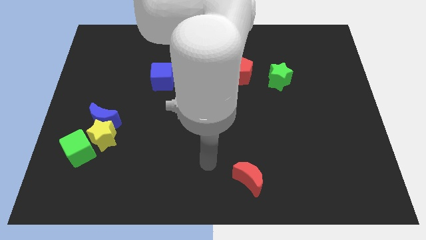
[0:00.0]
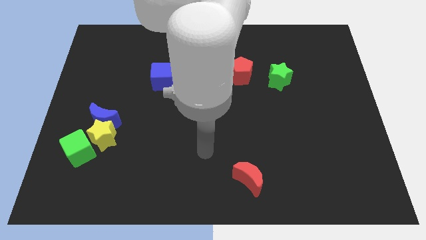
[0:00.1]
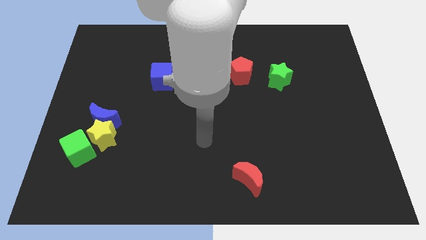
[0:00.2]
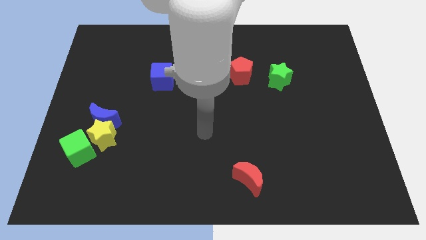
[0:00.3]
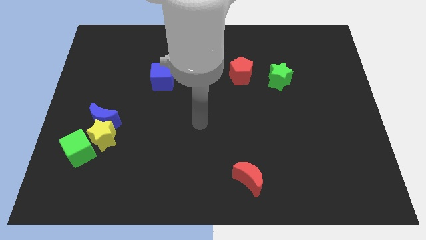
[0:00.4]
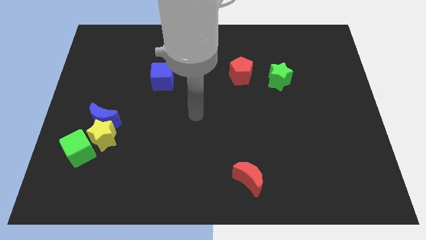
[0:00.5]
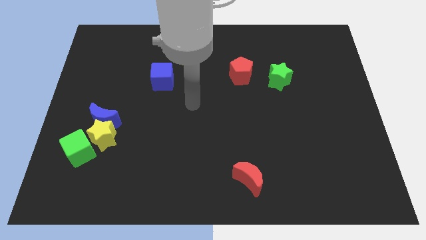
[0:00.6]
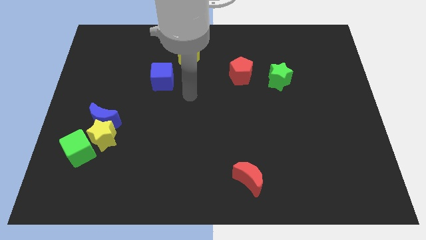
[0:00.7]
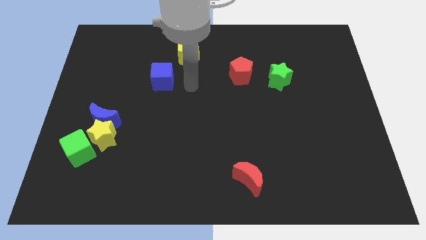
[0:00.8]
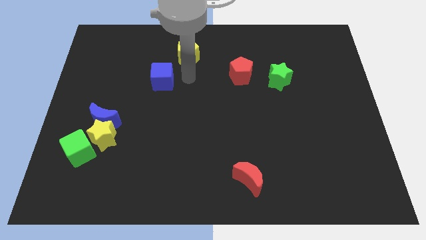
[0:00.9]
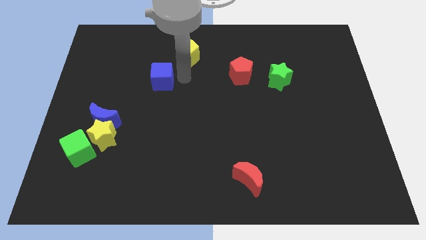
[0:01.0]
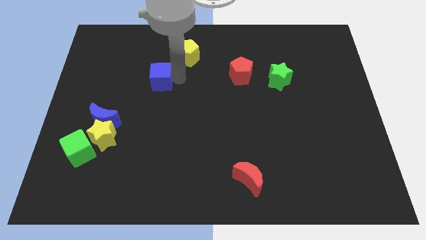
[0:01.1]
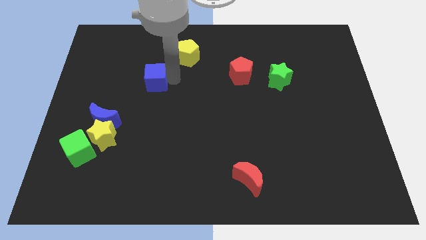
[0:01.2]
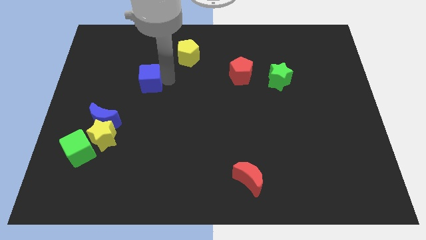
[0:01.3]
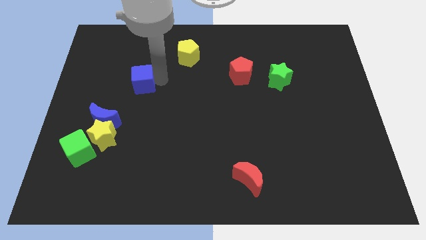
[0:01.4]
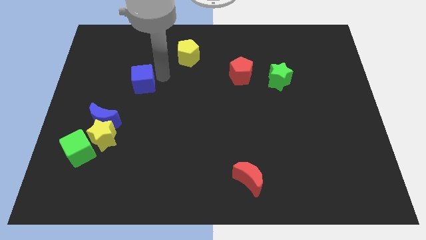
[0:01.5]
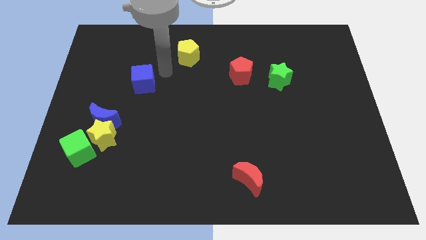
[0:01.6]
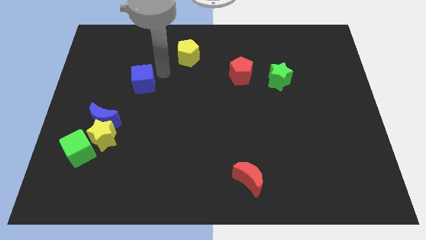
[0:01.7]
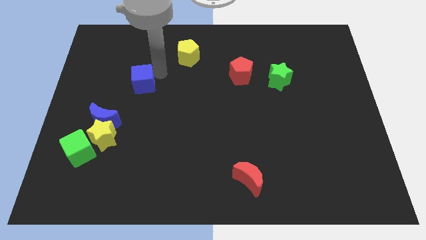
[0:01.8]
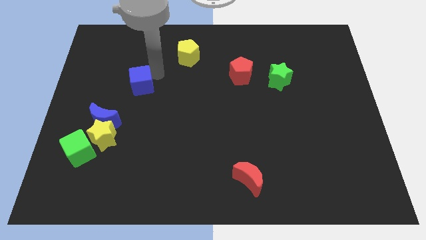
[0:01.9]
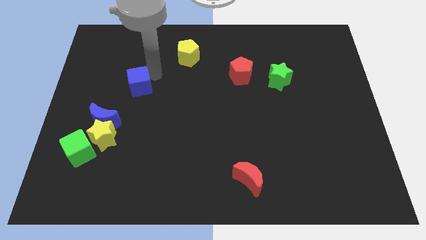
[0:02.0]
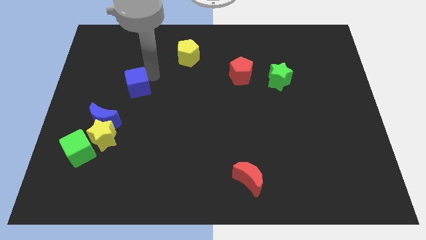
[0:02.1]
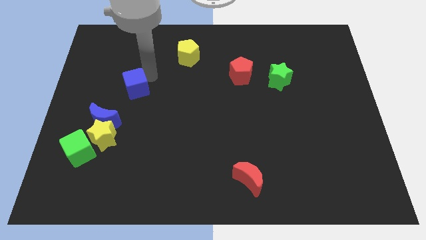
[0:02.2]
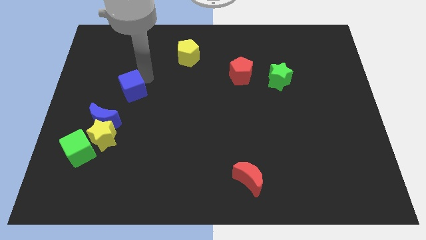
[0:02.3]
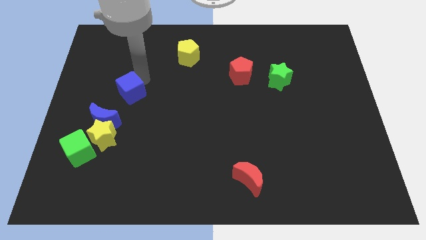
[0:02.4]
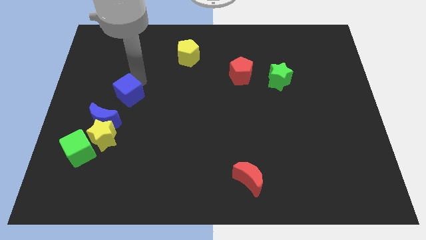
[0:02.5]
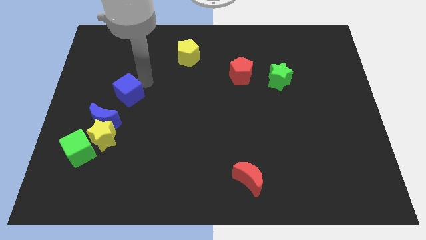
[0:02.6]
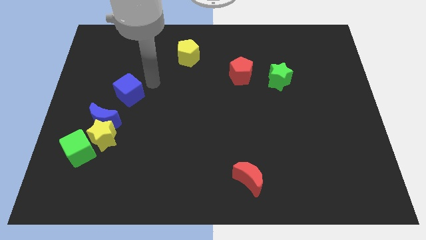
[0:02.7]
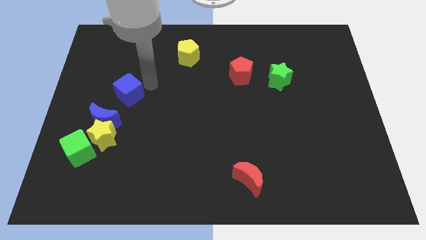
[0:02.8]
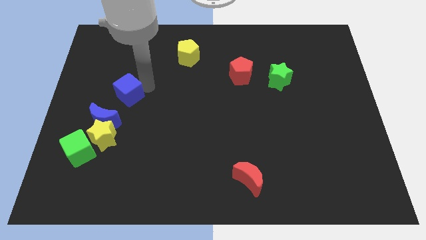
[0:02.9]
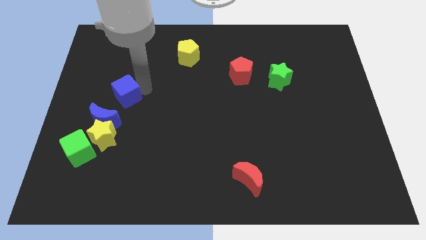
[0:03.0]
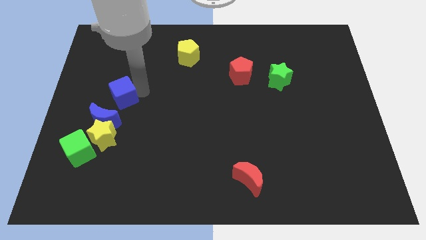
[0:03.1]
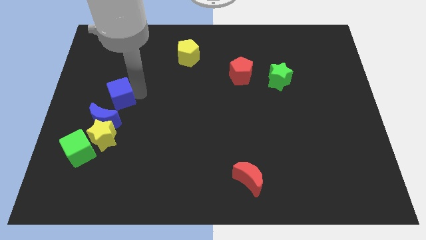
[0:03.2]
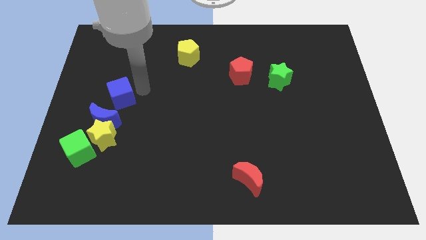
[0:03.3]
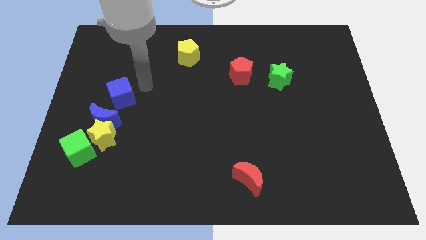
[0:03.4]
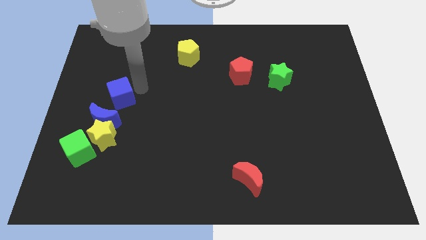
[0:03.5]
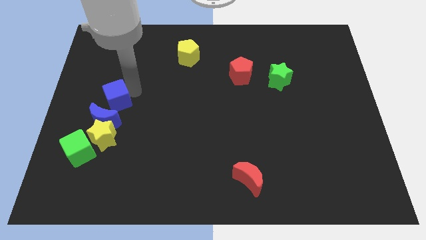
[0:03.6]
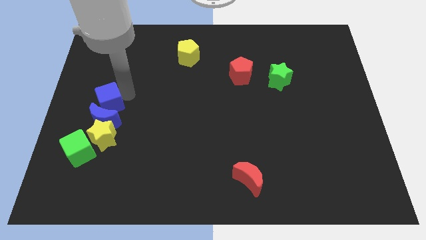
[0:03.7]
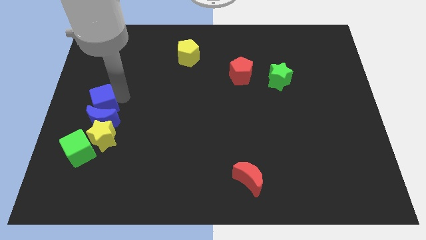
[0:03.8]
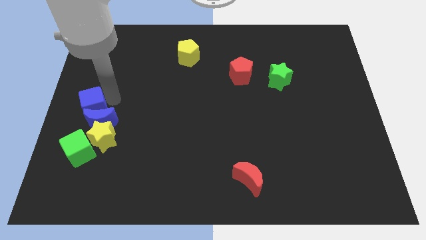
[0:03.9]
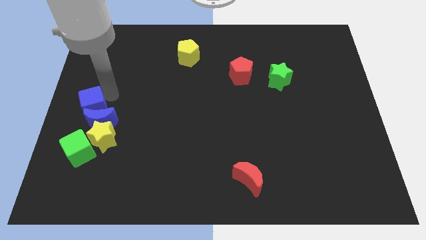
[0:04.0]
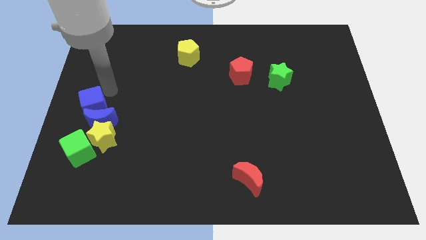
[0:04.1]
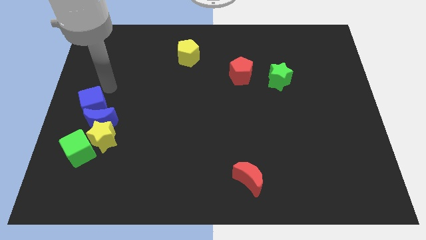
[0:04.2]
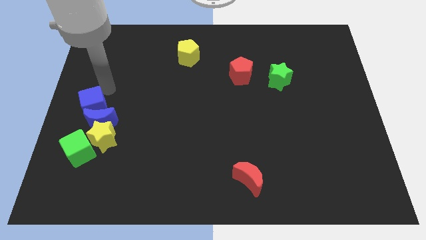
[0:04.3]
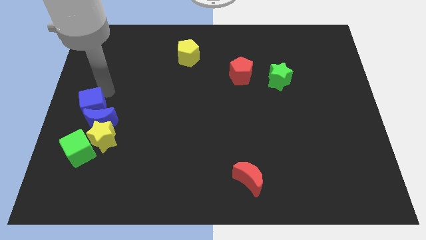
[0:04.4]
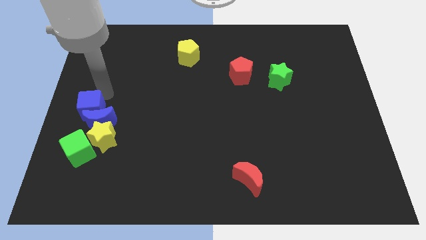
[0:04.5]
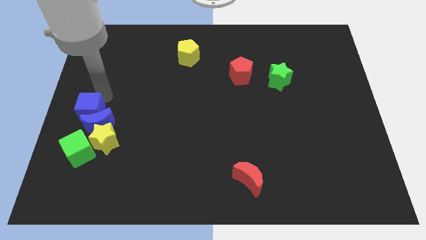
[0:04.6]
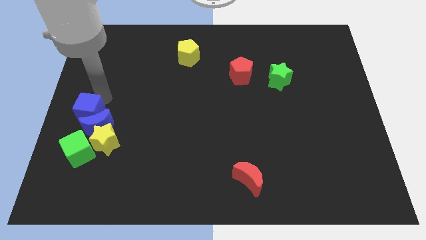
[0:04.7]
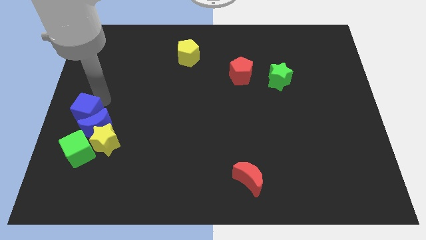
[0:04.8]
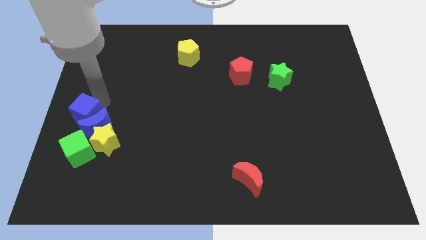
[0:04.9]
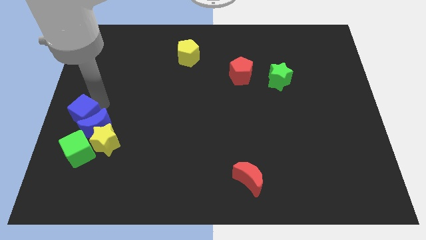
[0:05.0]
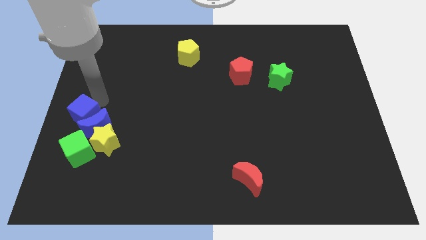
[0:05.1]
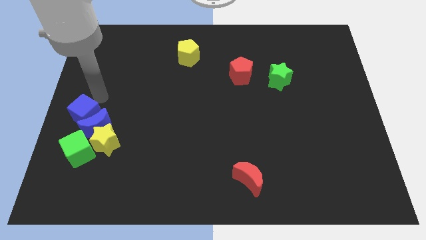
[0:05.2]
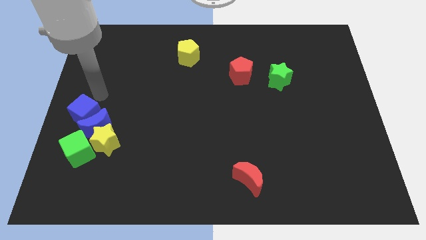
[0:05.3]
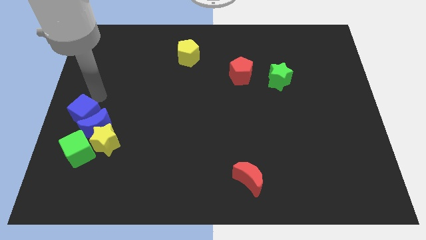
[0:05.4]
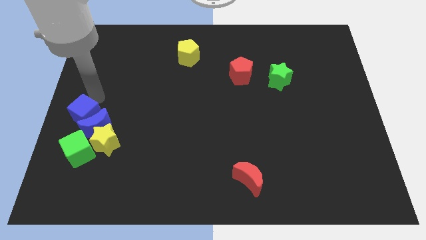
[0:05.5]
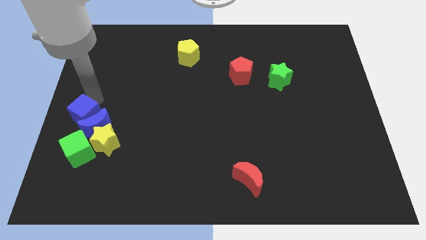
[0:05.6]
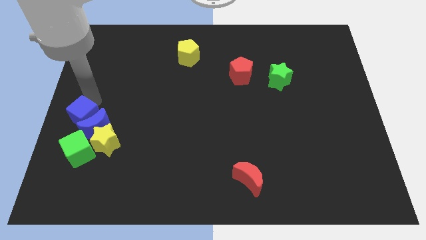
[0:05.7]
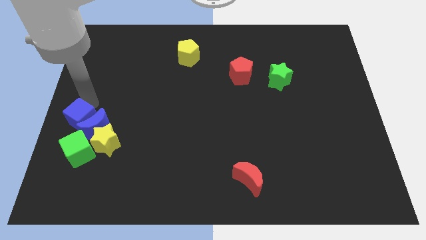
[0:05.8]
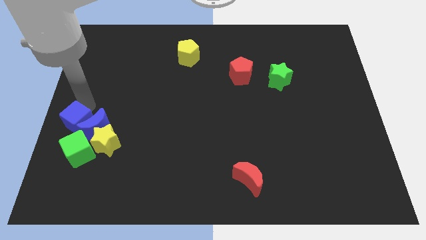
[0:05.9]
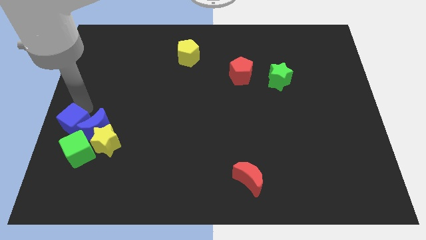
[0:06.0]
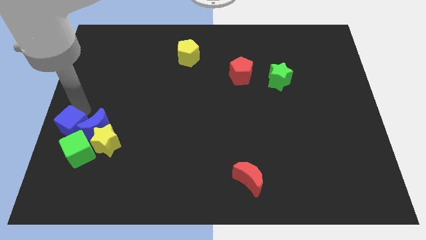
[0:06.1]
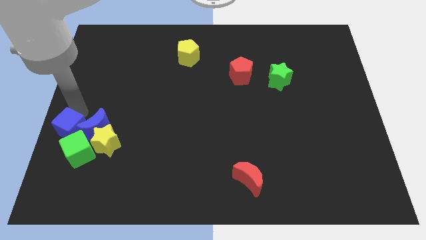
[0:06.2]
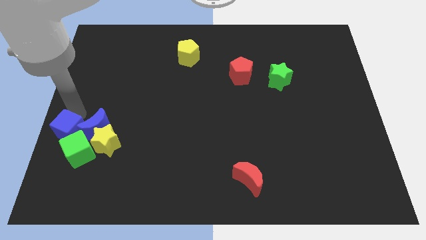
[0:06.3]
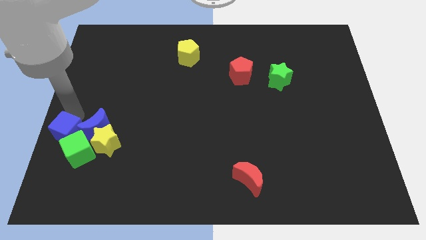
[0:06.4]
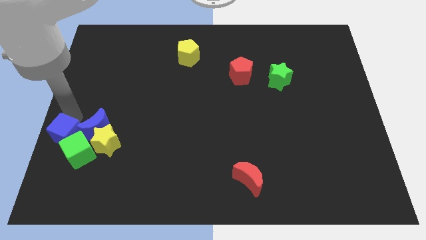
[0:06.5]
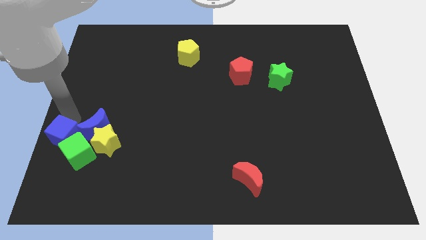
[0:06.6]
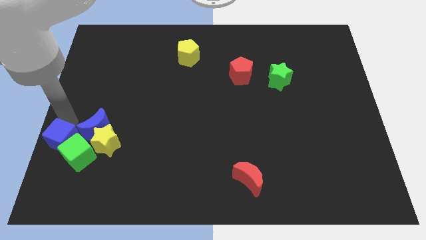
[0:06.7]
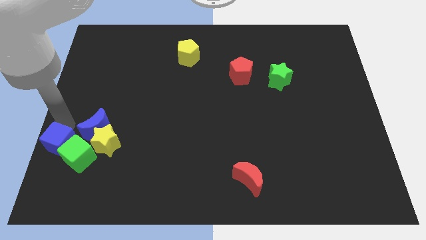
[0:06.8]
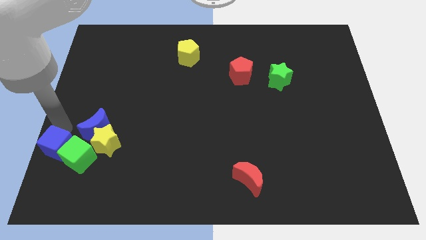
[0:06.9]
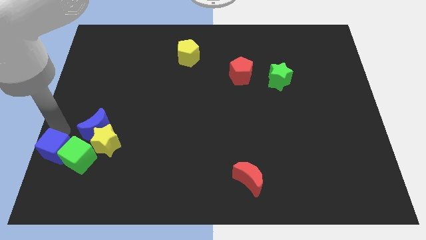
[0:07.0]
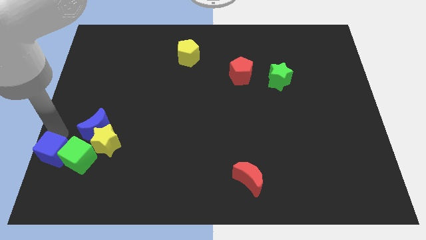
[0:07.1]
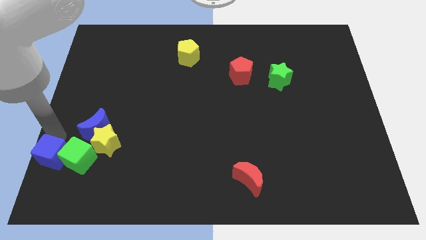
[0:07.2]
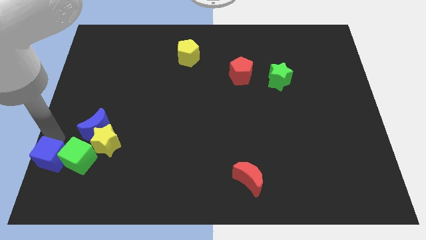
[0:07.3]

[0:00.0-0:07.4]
slide the blue cube to the bottom left
